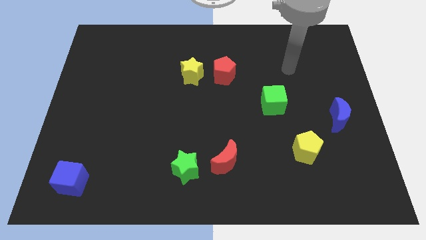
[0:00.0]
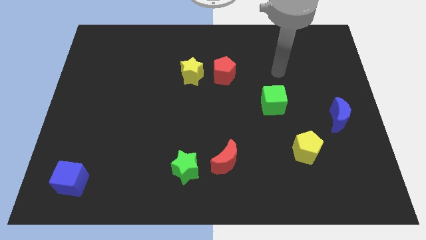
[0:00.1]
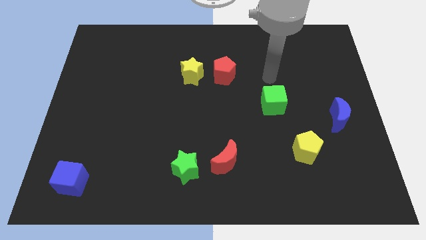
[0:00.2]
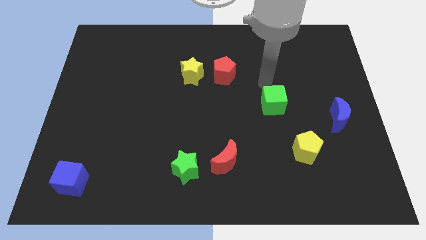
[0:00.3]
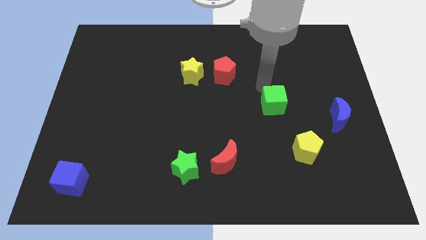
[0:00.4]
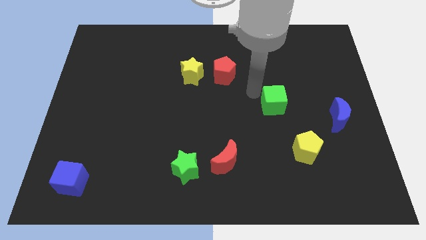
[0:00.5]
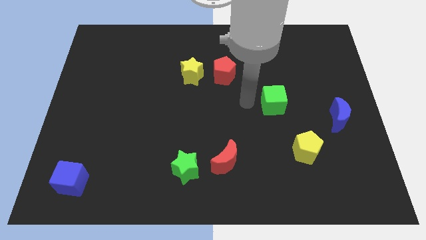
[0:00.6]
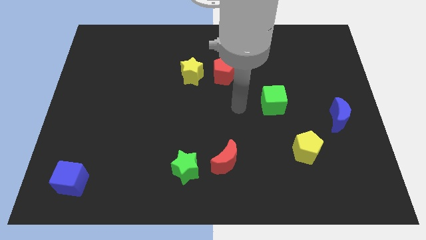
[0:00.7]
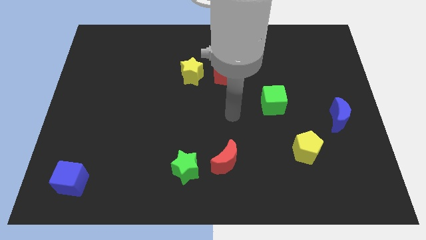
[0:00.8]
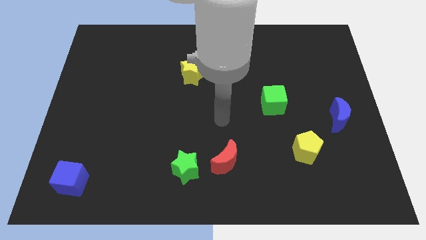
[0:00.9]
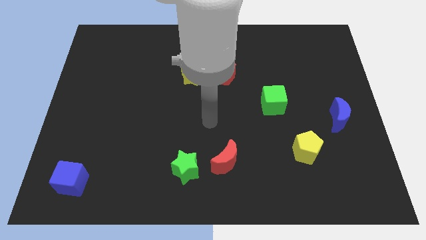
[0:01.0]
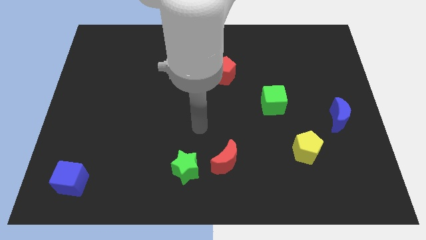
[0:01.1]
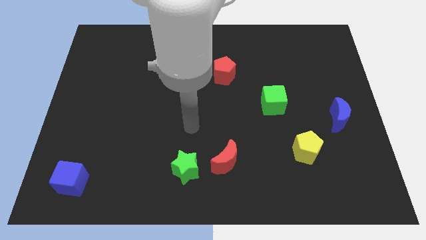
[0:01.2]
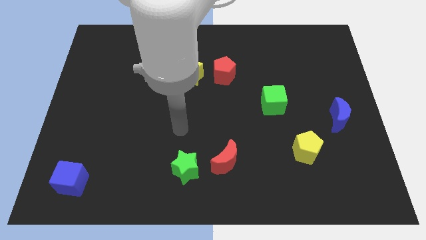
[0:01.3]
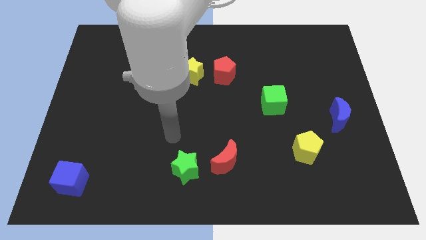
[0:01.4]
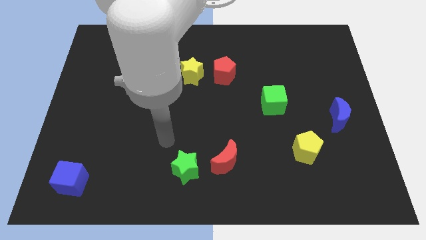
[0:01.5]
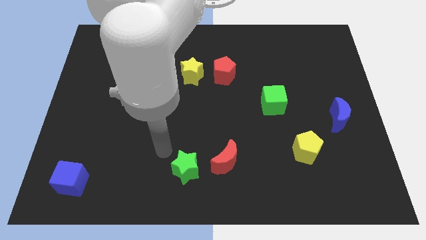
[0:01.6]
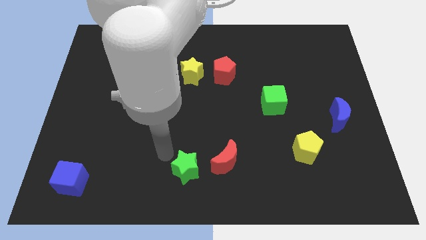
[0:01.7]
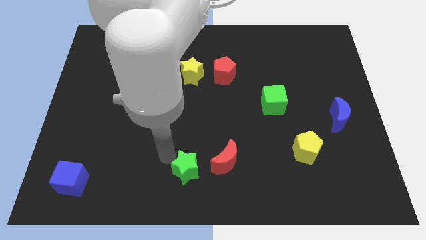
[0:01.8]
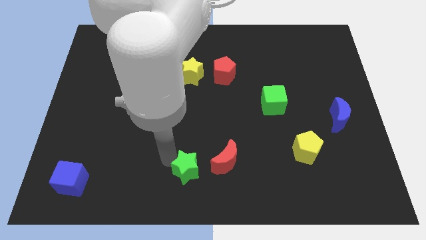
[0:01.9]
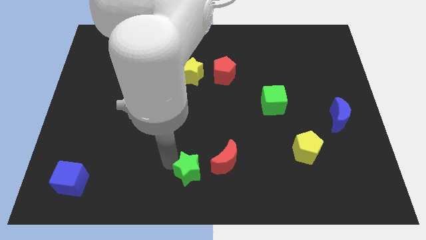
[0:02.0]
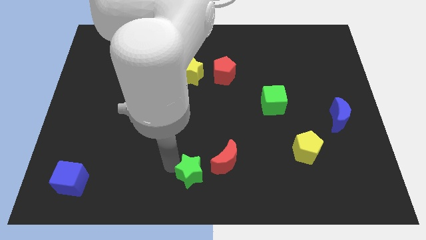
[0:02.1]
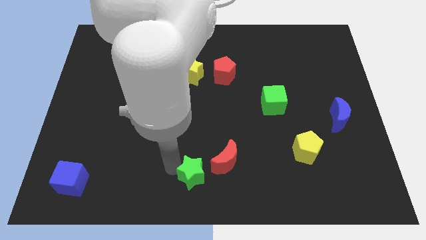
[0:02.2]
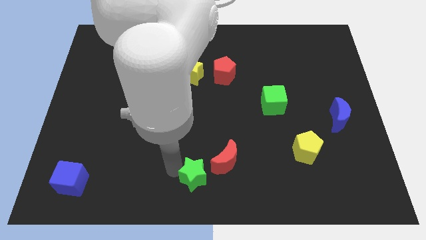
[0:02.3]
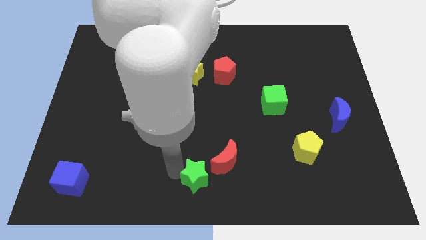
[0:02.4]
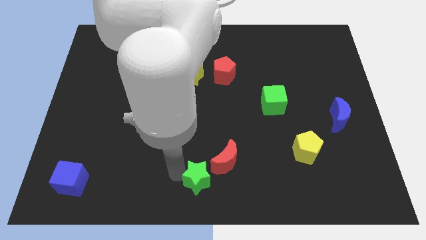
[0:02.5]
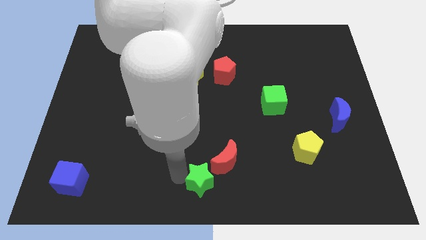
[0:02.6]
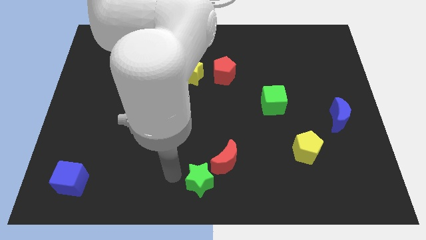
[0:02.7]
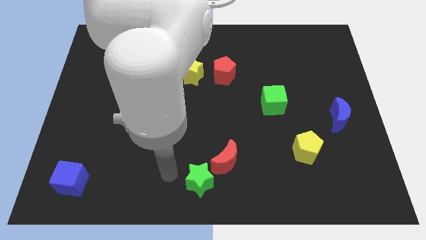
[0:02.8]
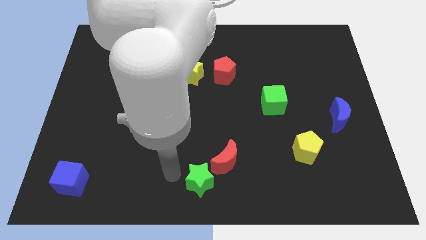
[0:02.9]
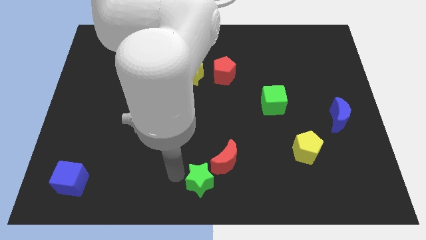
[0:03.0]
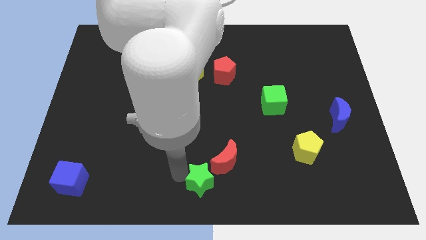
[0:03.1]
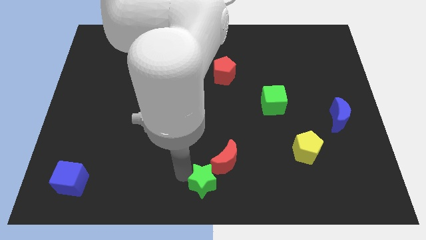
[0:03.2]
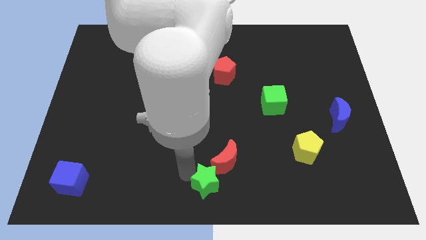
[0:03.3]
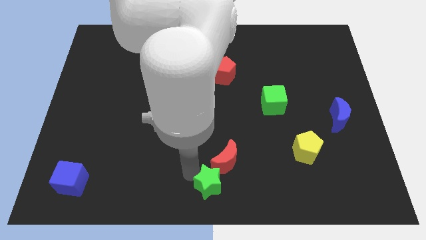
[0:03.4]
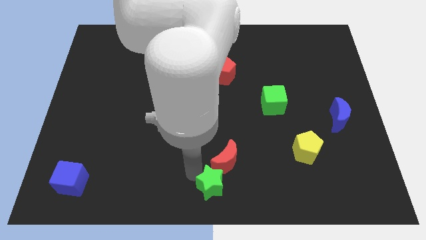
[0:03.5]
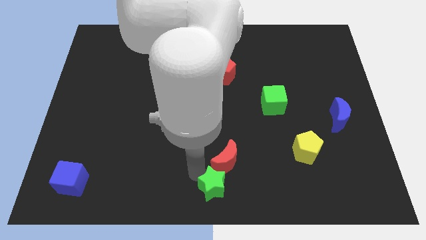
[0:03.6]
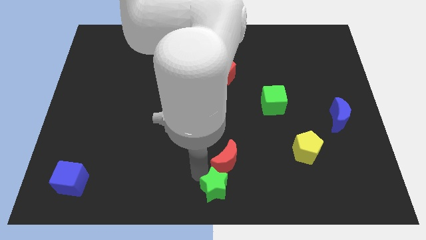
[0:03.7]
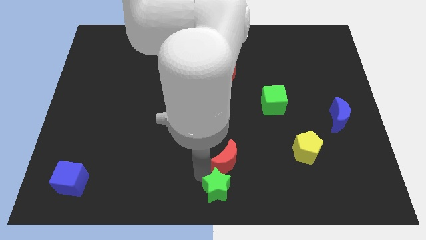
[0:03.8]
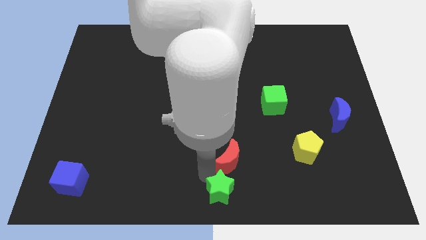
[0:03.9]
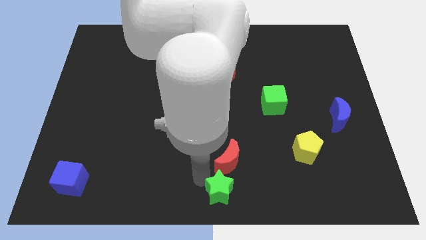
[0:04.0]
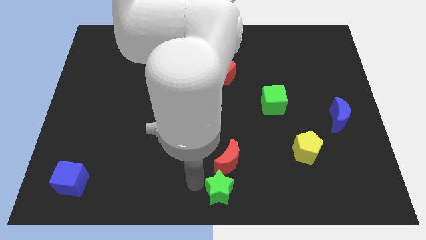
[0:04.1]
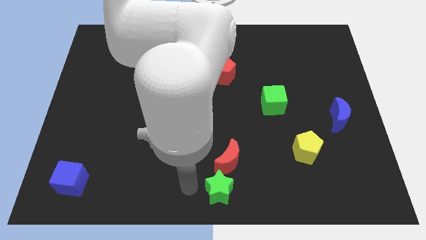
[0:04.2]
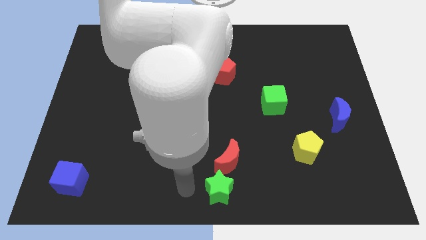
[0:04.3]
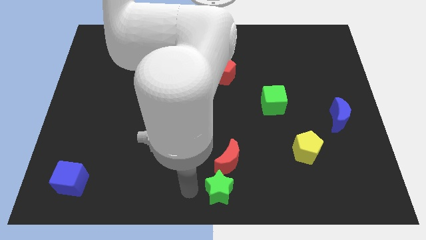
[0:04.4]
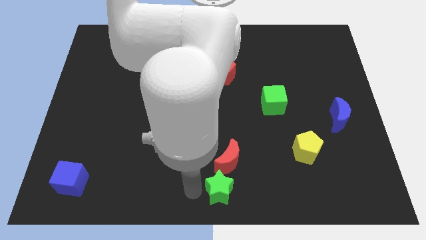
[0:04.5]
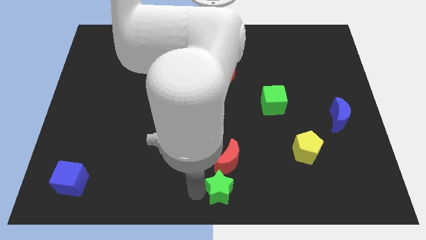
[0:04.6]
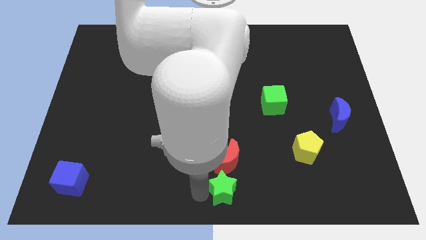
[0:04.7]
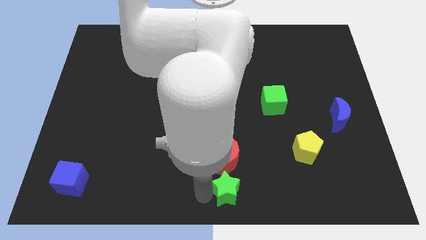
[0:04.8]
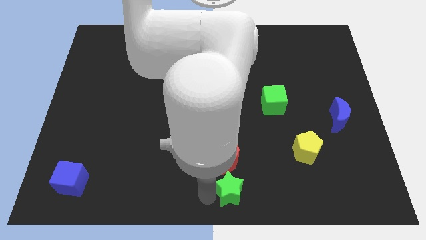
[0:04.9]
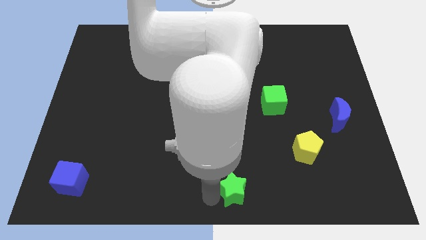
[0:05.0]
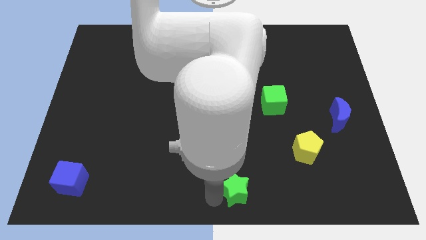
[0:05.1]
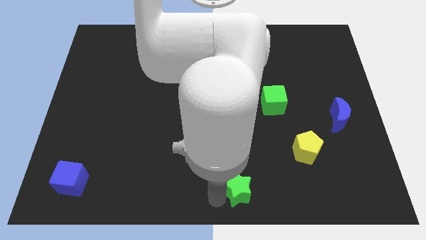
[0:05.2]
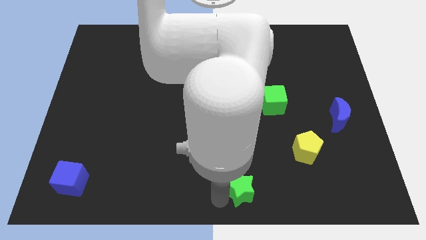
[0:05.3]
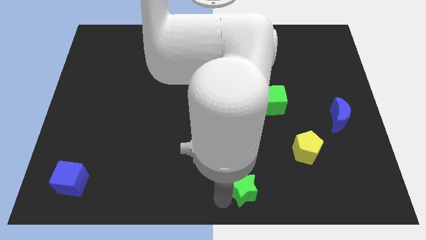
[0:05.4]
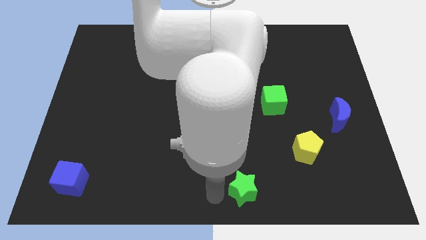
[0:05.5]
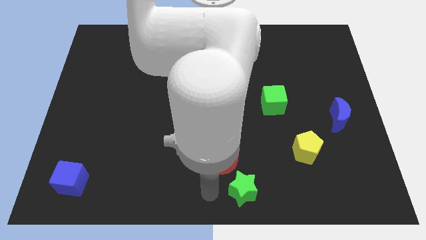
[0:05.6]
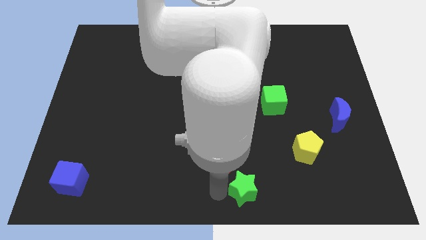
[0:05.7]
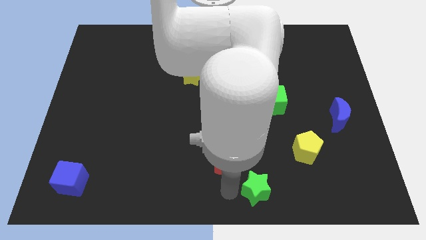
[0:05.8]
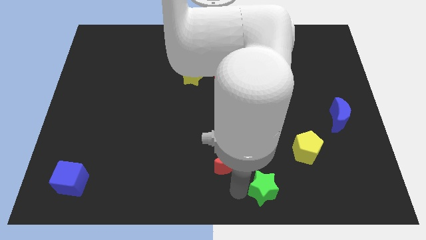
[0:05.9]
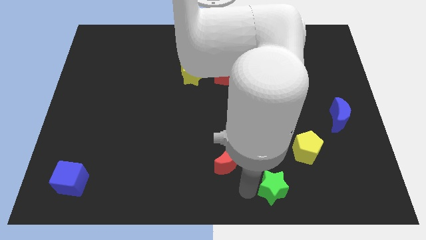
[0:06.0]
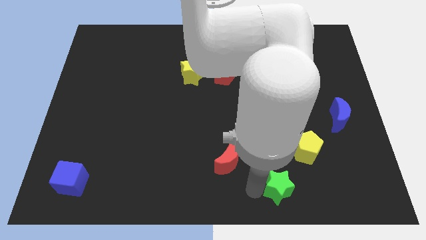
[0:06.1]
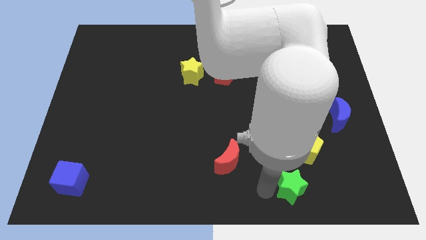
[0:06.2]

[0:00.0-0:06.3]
move the green star right

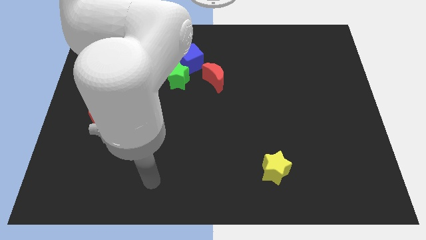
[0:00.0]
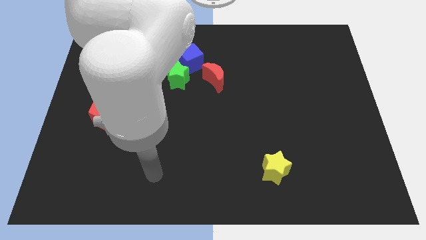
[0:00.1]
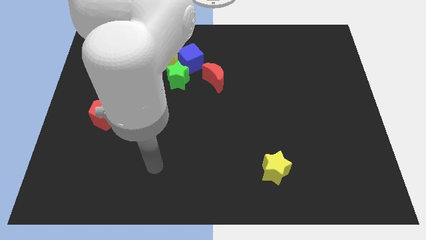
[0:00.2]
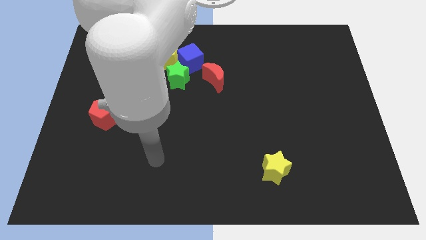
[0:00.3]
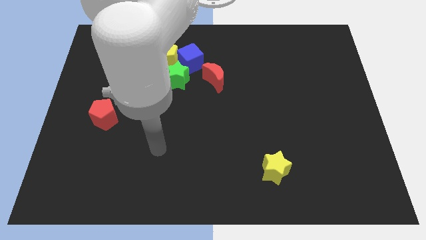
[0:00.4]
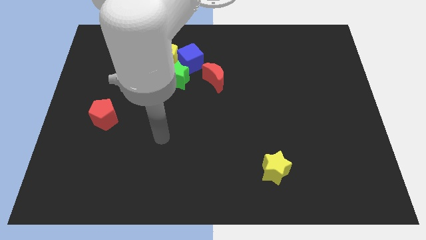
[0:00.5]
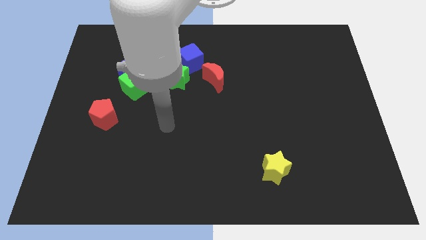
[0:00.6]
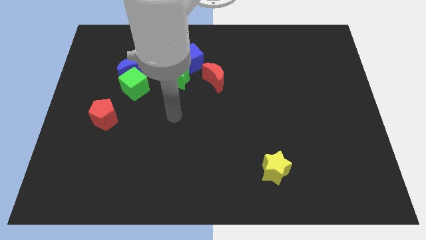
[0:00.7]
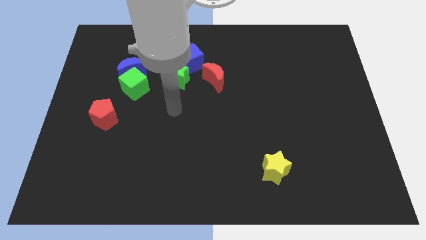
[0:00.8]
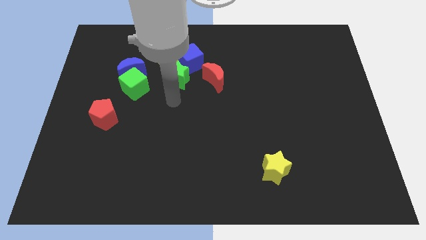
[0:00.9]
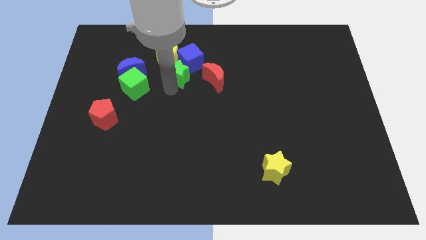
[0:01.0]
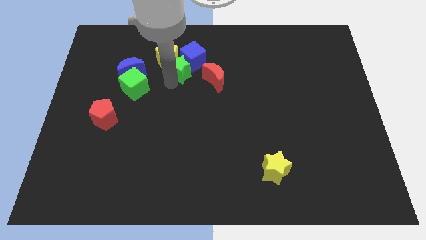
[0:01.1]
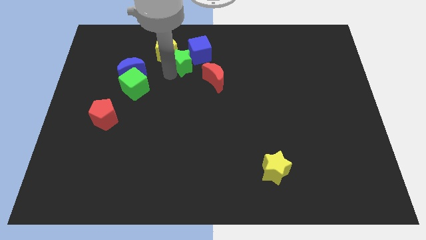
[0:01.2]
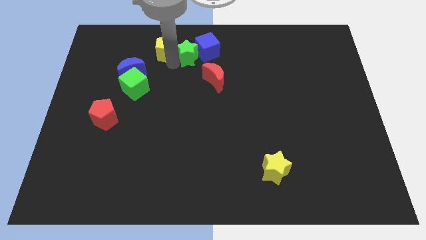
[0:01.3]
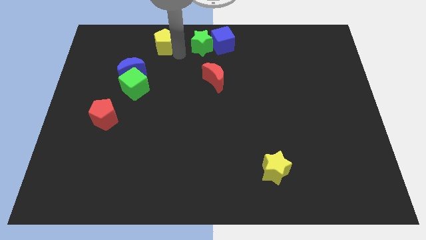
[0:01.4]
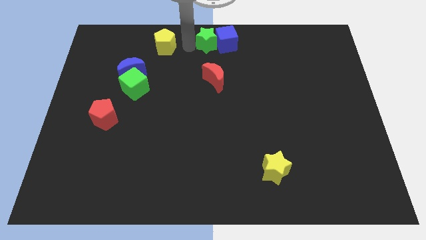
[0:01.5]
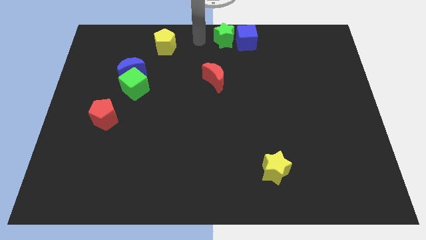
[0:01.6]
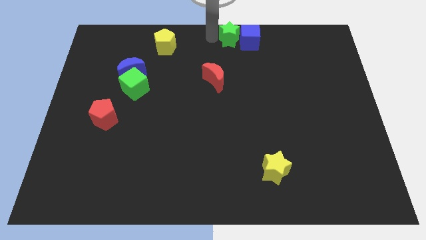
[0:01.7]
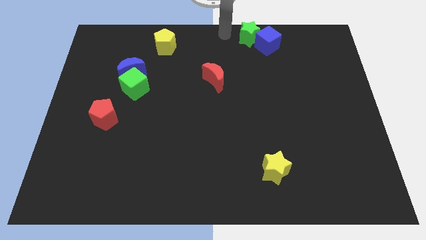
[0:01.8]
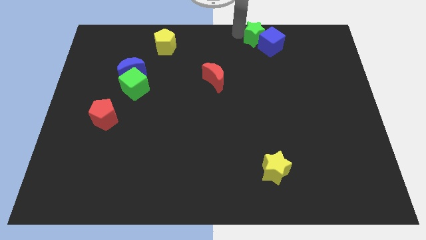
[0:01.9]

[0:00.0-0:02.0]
move the blue cube to the right
